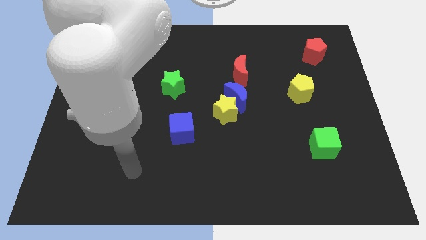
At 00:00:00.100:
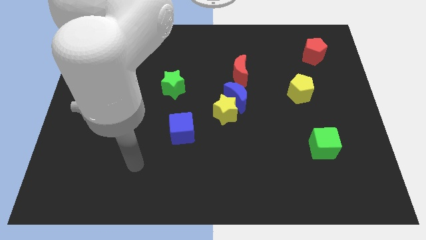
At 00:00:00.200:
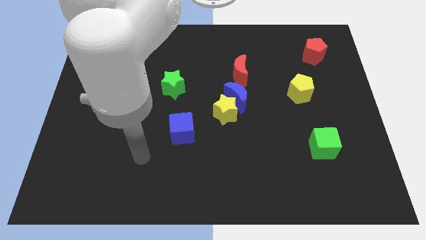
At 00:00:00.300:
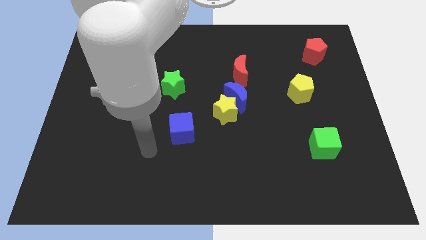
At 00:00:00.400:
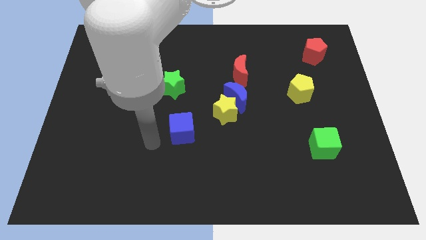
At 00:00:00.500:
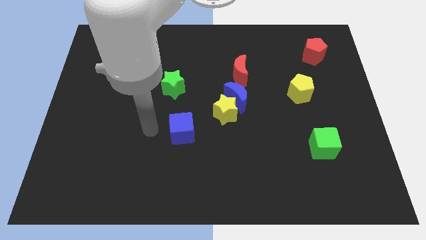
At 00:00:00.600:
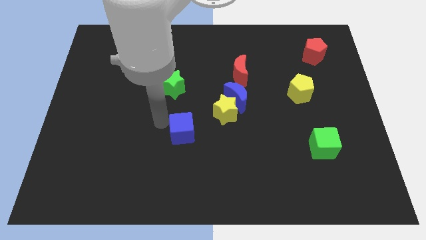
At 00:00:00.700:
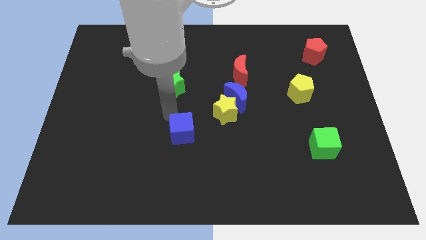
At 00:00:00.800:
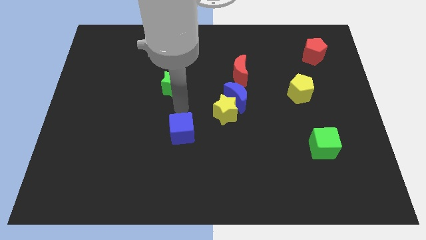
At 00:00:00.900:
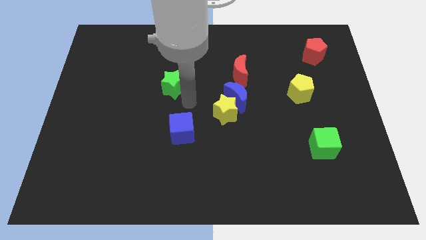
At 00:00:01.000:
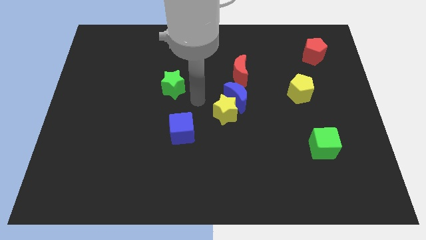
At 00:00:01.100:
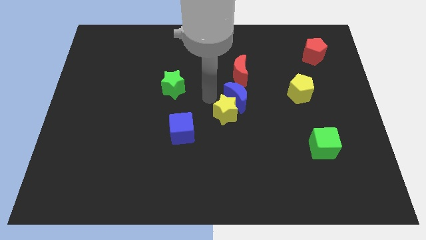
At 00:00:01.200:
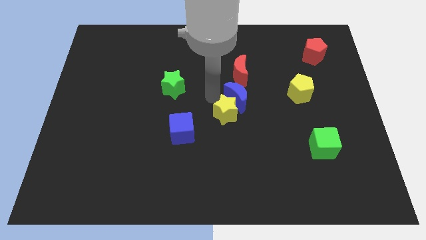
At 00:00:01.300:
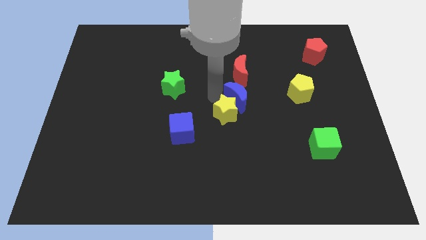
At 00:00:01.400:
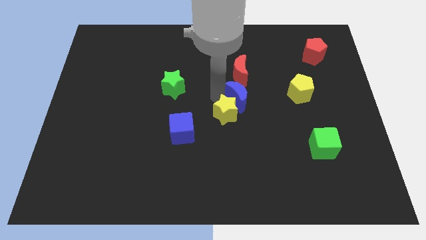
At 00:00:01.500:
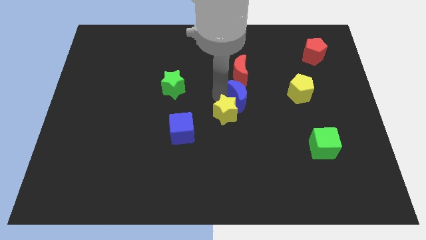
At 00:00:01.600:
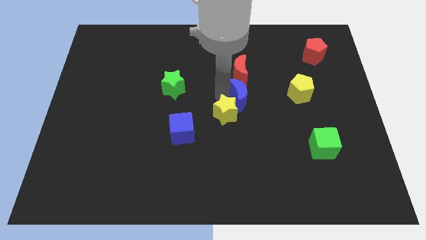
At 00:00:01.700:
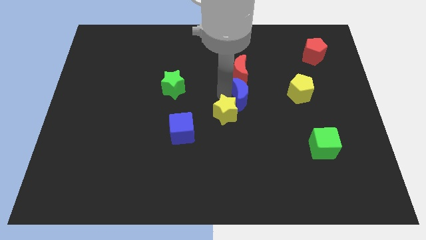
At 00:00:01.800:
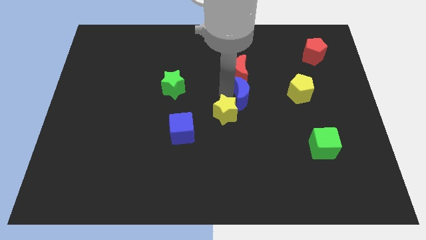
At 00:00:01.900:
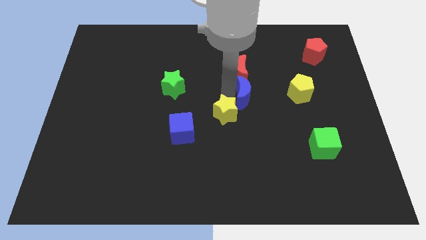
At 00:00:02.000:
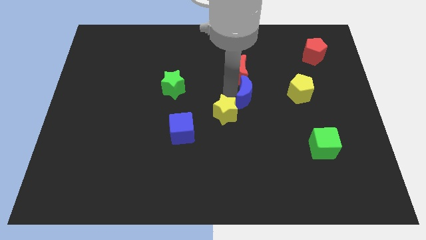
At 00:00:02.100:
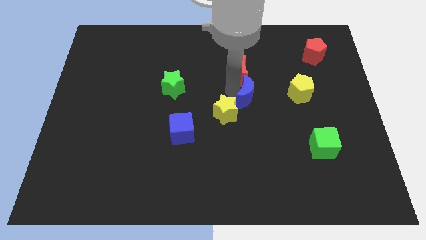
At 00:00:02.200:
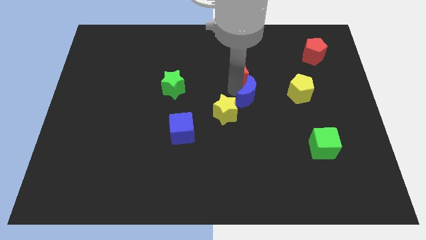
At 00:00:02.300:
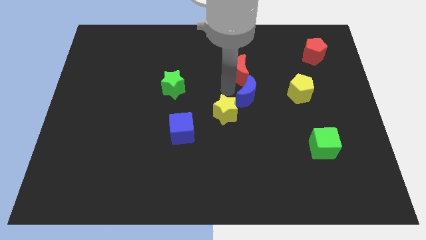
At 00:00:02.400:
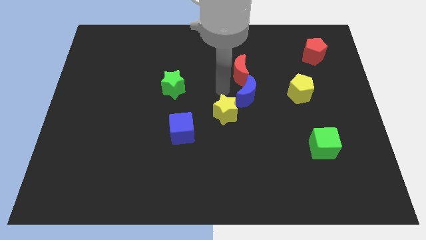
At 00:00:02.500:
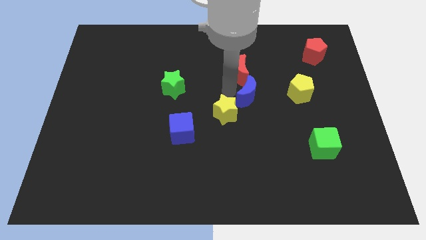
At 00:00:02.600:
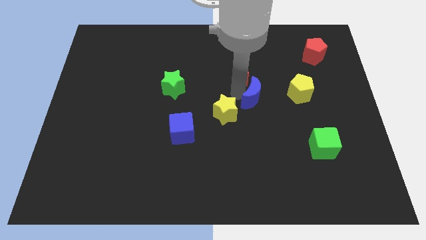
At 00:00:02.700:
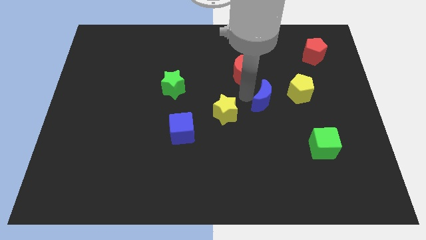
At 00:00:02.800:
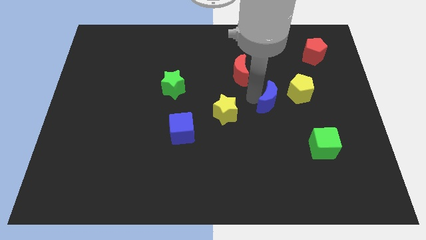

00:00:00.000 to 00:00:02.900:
slide the blue moon somewhat to the right

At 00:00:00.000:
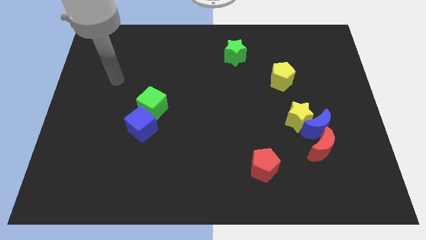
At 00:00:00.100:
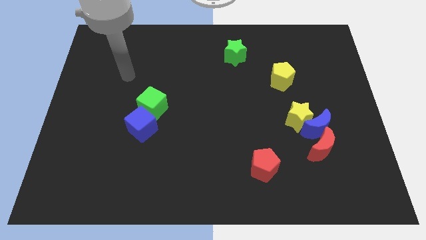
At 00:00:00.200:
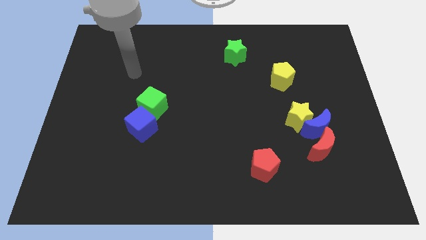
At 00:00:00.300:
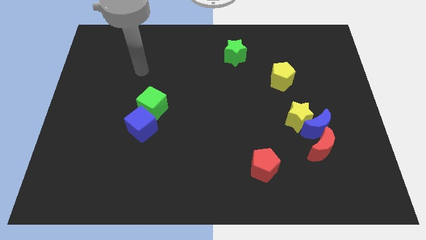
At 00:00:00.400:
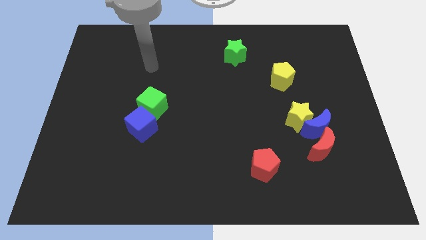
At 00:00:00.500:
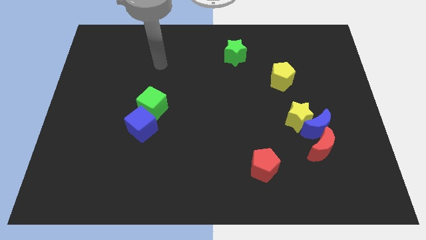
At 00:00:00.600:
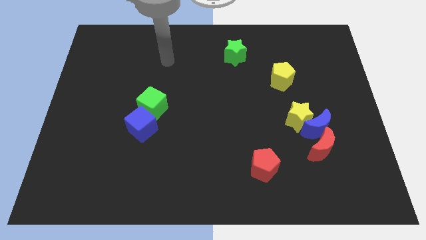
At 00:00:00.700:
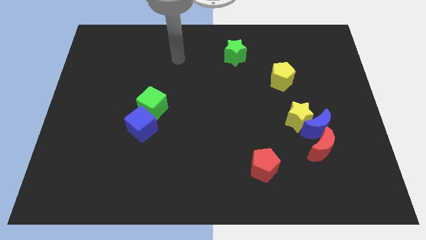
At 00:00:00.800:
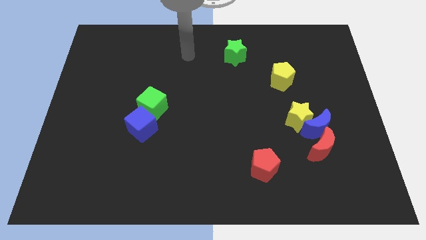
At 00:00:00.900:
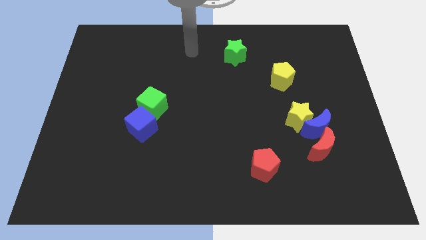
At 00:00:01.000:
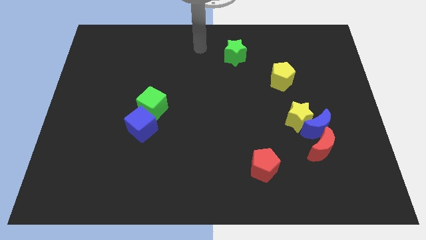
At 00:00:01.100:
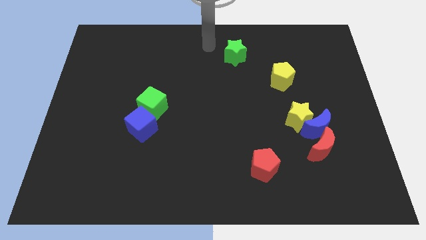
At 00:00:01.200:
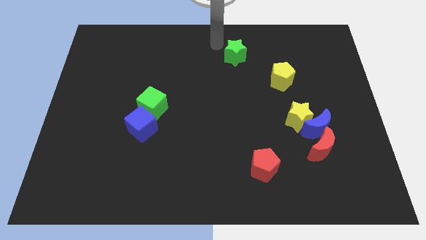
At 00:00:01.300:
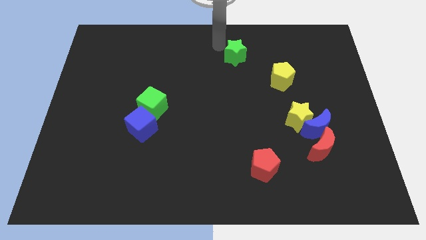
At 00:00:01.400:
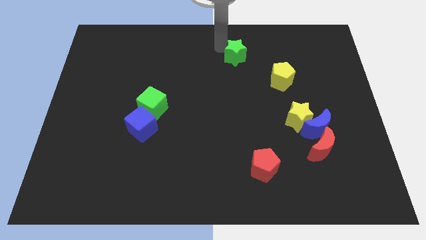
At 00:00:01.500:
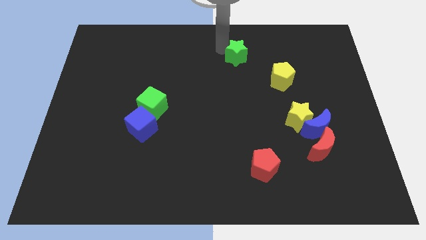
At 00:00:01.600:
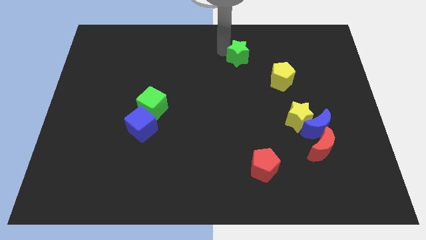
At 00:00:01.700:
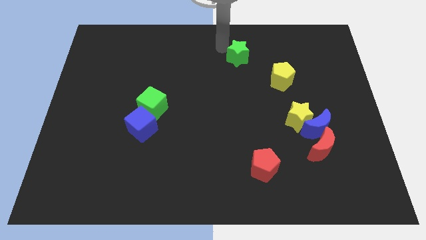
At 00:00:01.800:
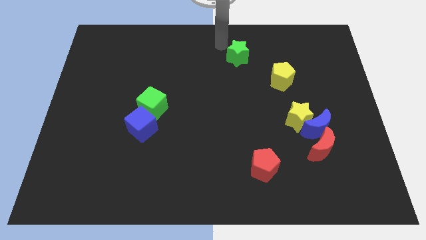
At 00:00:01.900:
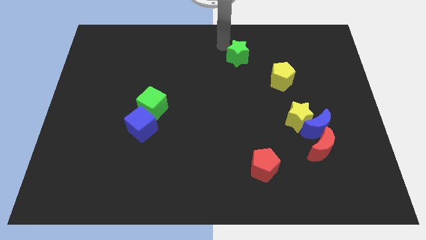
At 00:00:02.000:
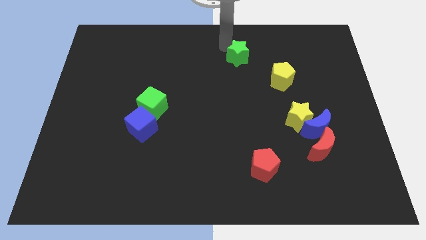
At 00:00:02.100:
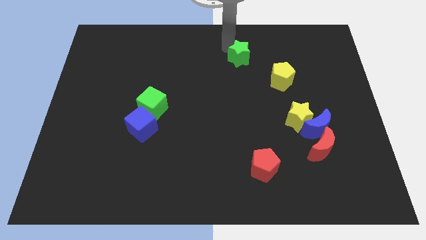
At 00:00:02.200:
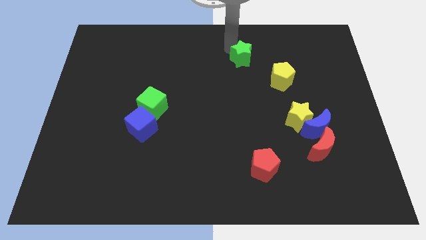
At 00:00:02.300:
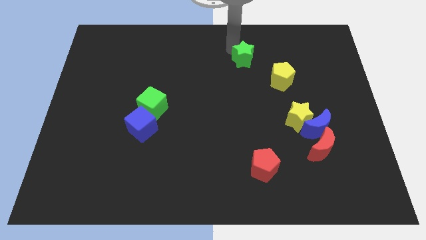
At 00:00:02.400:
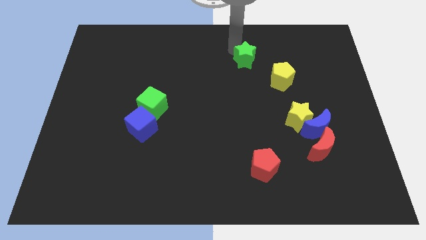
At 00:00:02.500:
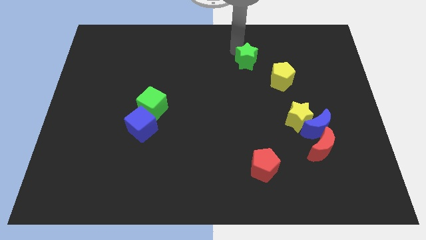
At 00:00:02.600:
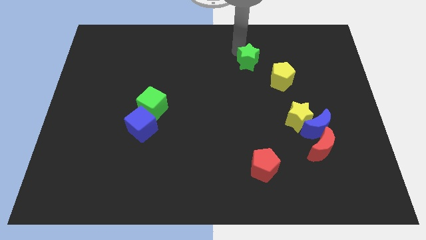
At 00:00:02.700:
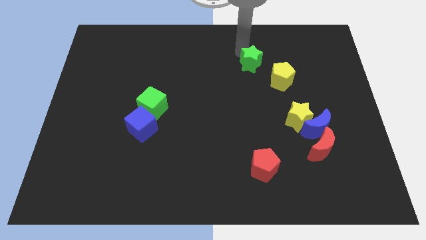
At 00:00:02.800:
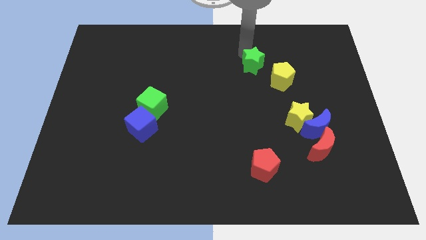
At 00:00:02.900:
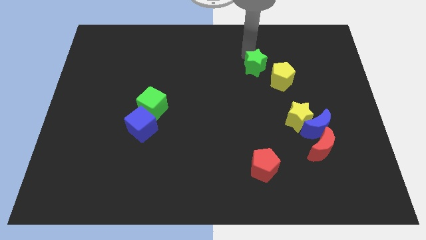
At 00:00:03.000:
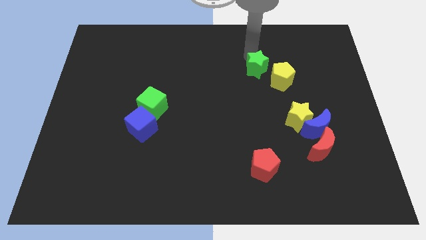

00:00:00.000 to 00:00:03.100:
push the green star a bit down and to the right

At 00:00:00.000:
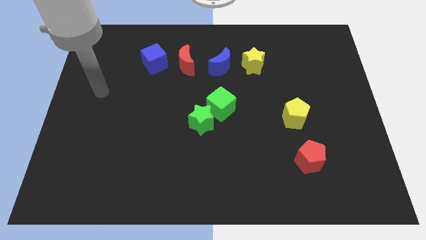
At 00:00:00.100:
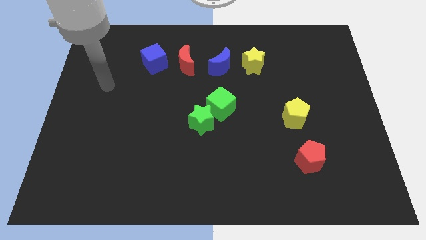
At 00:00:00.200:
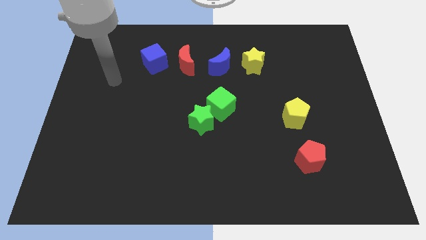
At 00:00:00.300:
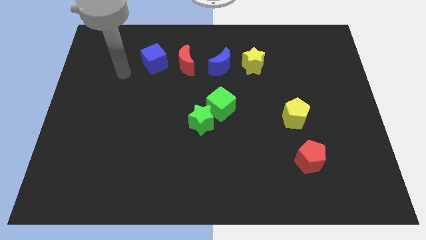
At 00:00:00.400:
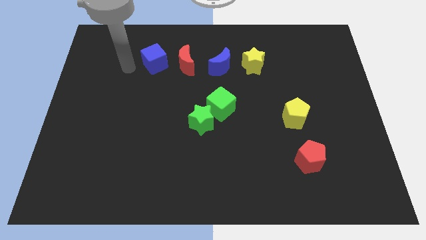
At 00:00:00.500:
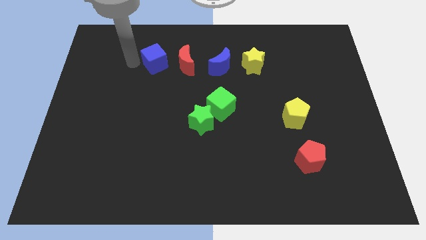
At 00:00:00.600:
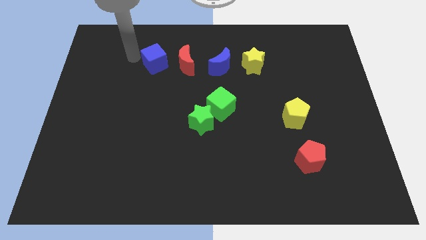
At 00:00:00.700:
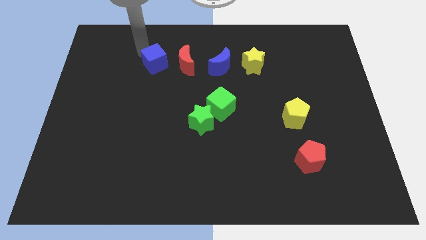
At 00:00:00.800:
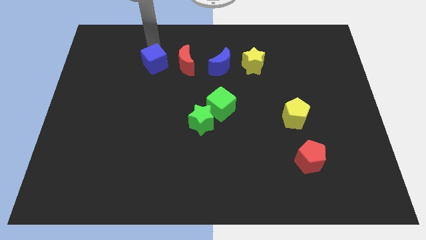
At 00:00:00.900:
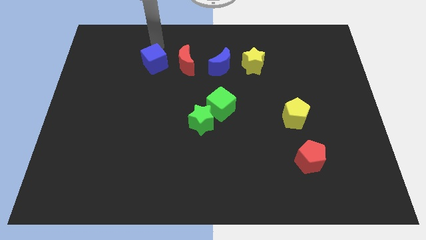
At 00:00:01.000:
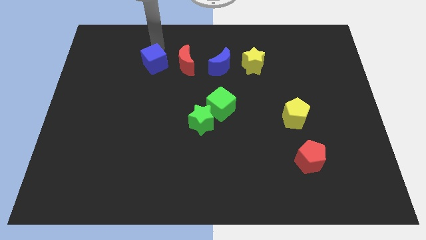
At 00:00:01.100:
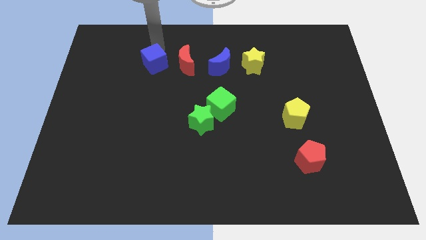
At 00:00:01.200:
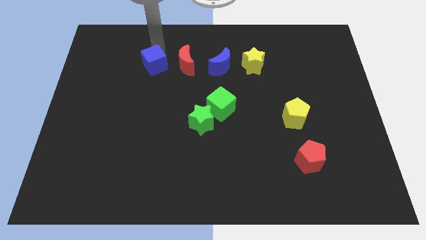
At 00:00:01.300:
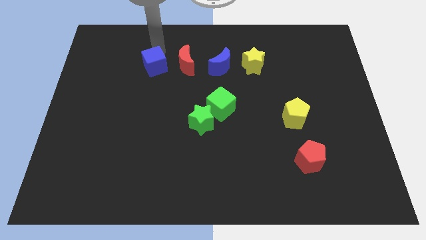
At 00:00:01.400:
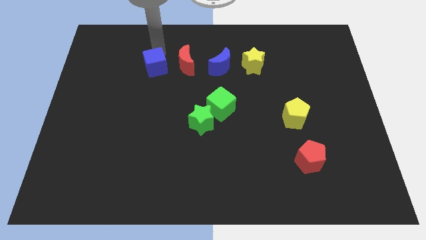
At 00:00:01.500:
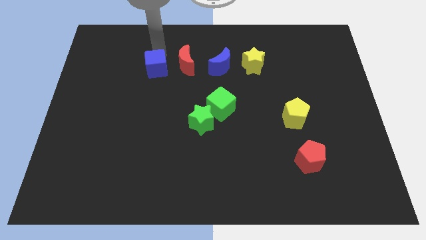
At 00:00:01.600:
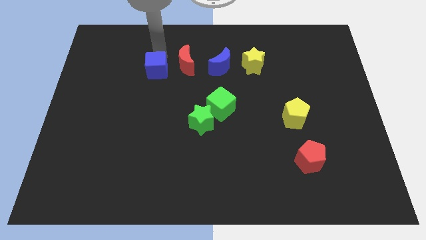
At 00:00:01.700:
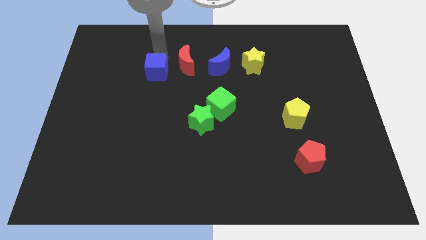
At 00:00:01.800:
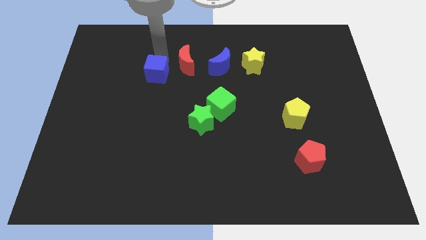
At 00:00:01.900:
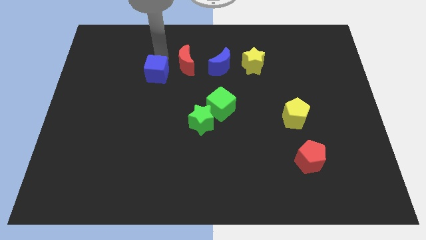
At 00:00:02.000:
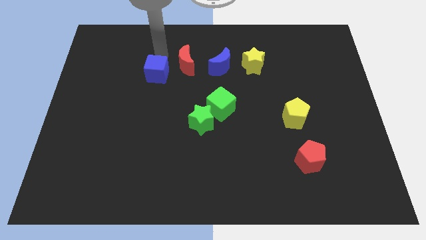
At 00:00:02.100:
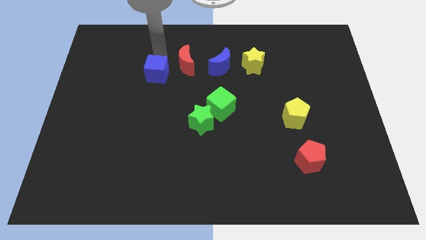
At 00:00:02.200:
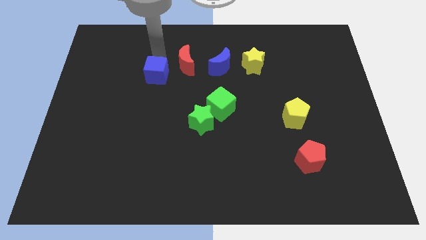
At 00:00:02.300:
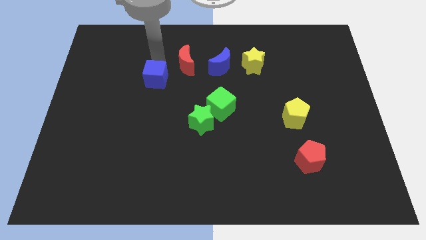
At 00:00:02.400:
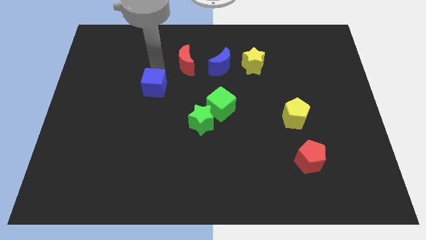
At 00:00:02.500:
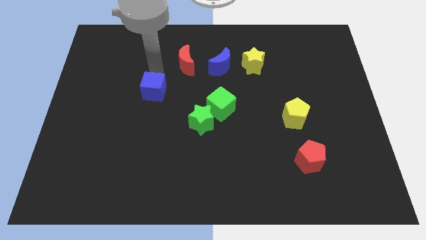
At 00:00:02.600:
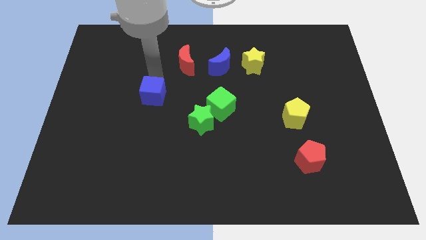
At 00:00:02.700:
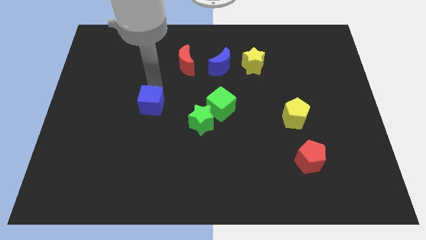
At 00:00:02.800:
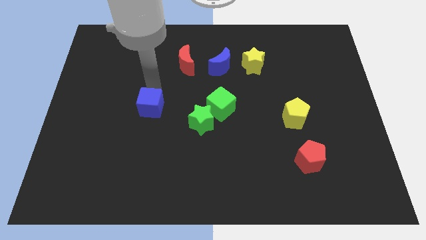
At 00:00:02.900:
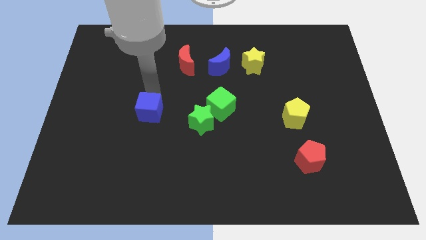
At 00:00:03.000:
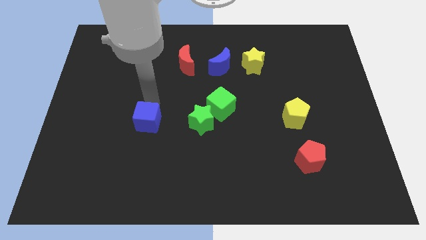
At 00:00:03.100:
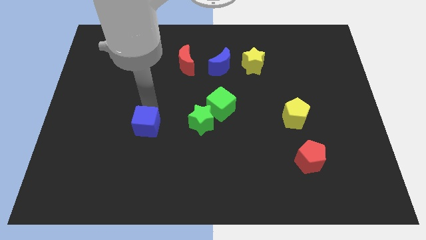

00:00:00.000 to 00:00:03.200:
push the blue cube downwards
